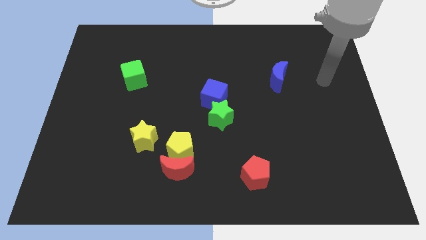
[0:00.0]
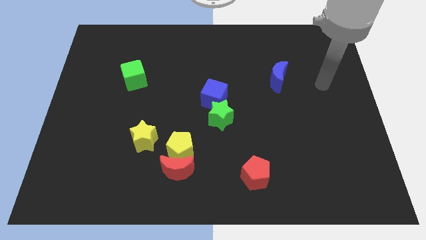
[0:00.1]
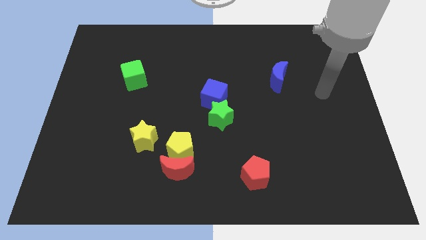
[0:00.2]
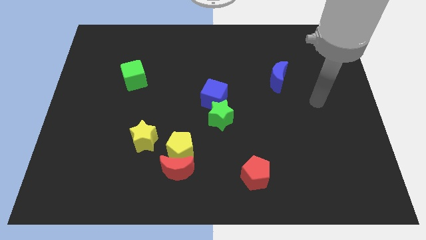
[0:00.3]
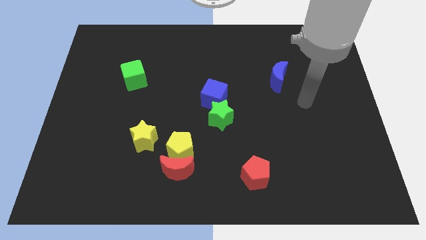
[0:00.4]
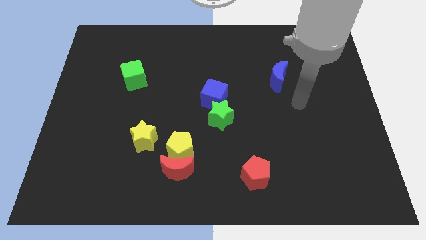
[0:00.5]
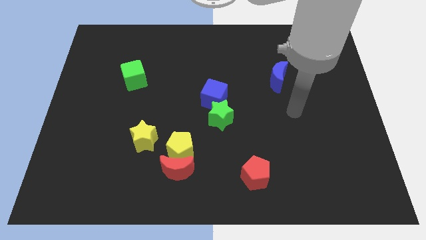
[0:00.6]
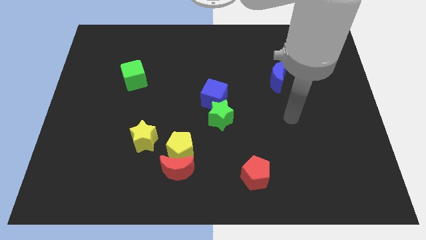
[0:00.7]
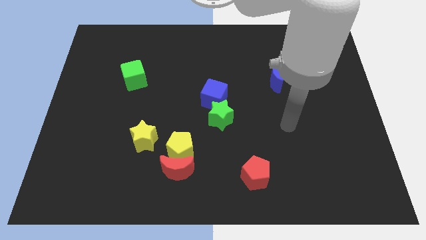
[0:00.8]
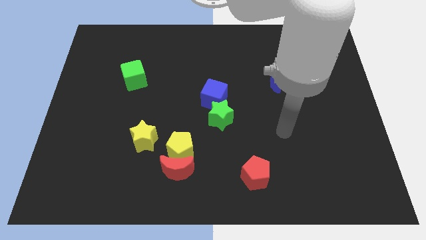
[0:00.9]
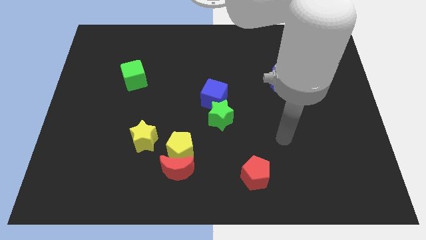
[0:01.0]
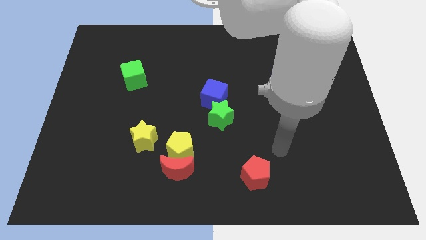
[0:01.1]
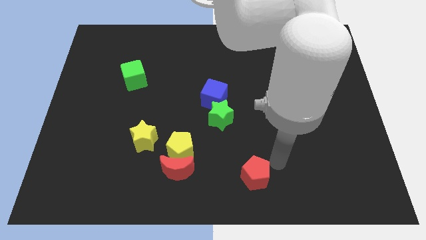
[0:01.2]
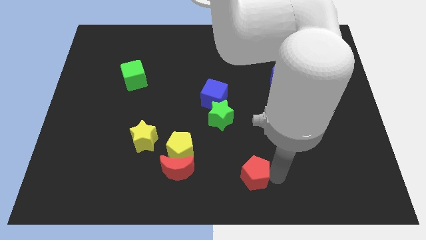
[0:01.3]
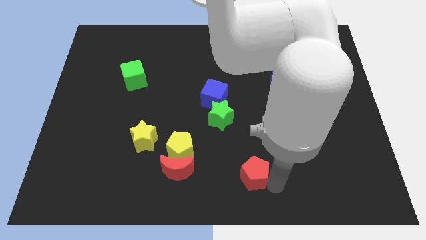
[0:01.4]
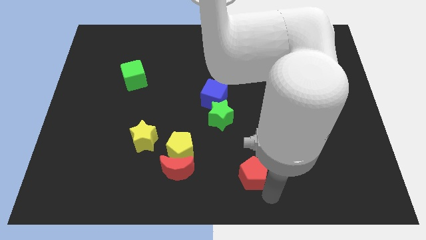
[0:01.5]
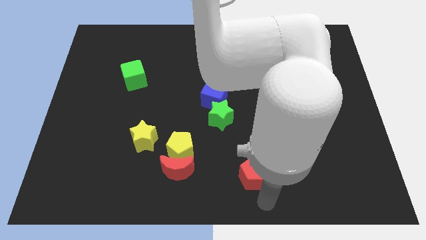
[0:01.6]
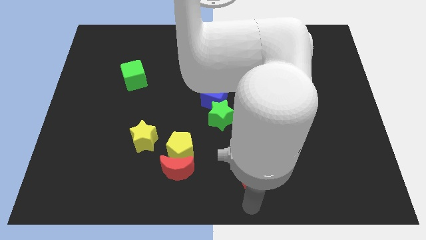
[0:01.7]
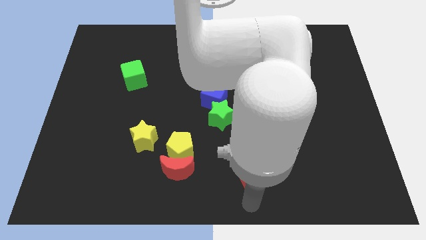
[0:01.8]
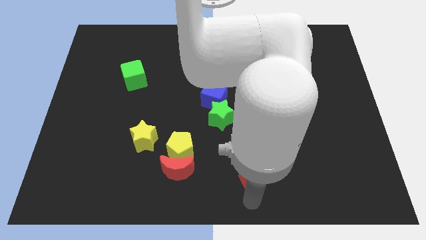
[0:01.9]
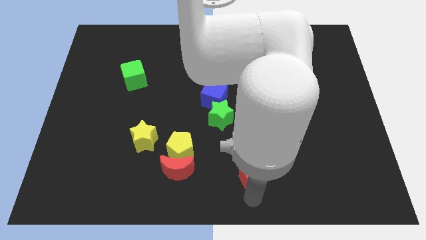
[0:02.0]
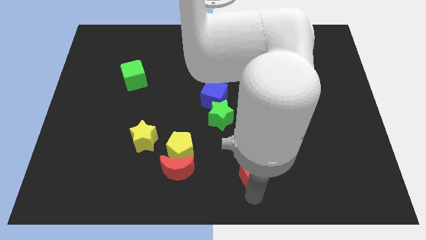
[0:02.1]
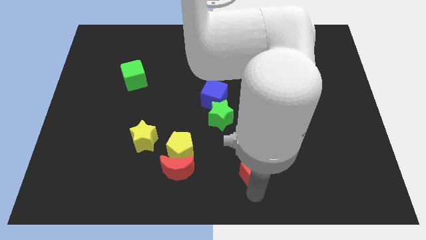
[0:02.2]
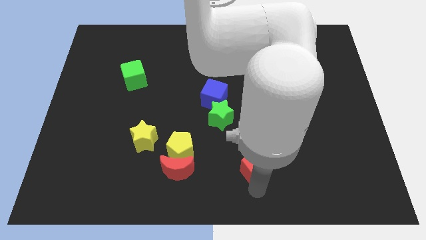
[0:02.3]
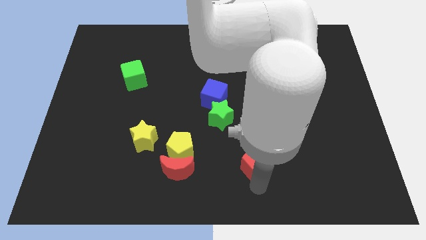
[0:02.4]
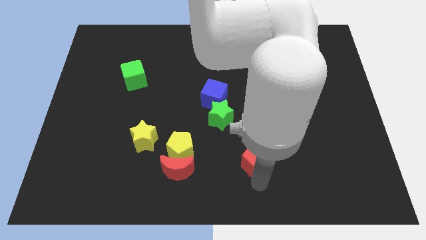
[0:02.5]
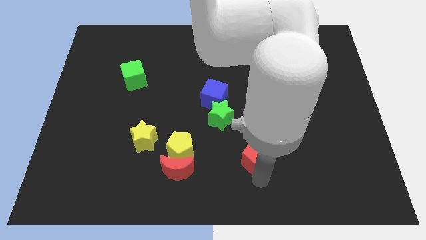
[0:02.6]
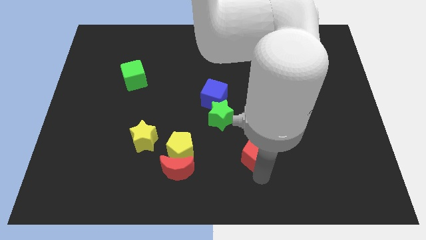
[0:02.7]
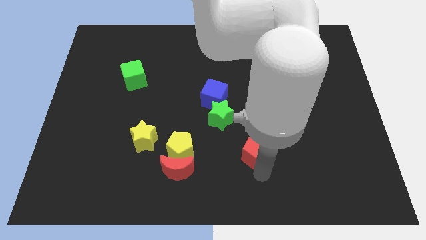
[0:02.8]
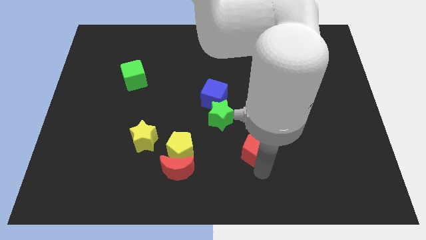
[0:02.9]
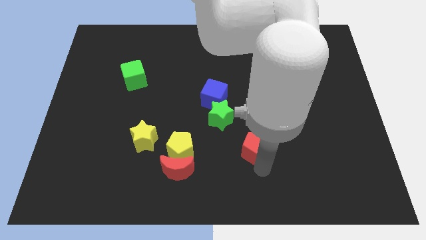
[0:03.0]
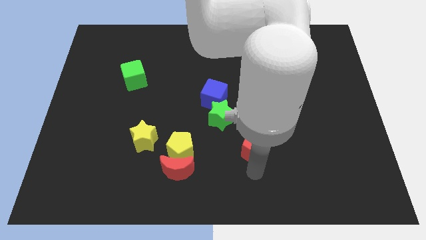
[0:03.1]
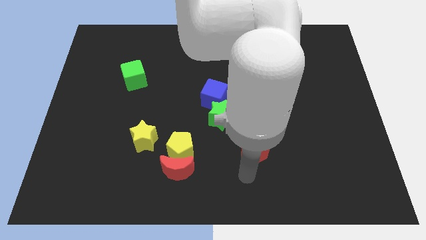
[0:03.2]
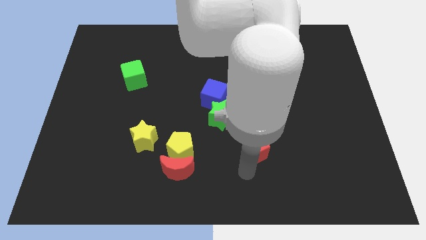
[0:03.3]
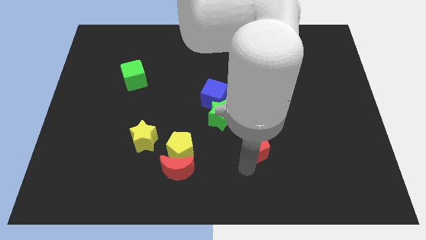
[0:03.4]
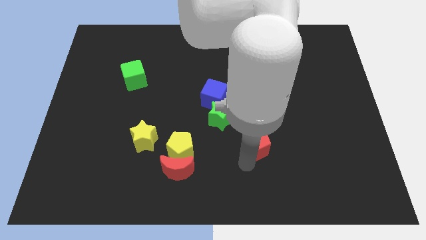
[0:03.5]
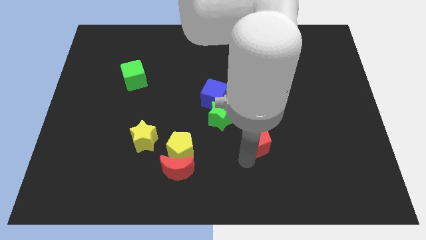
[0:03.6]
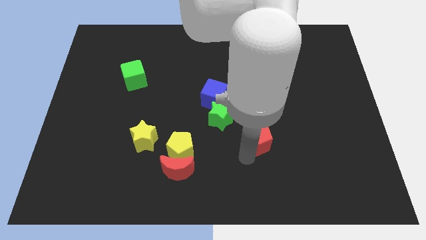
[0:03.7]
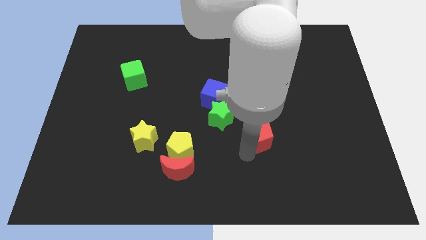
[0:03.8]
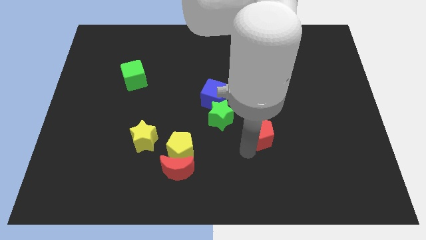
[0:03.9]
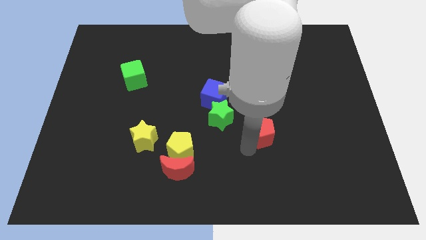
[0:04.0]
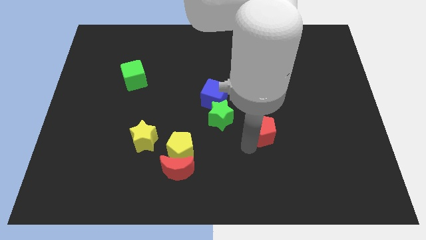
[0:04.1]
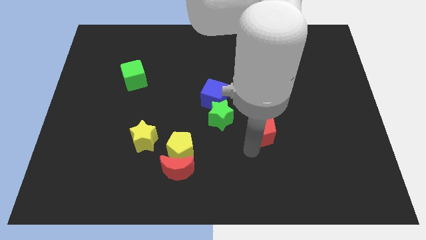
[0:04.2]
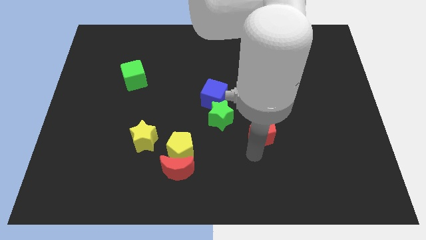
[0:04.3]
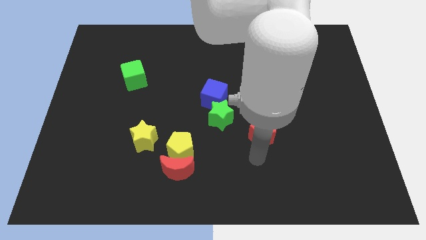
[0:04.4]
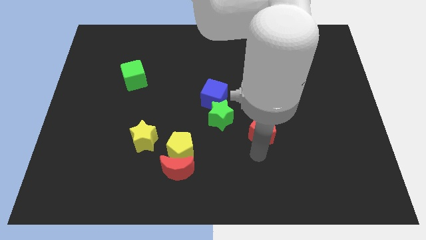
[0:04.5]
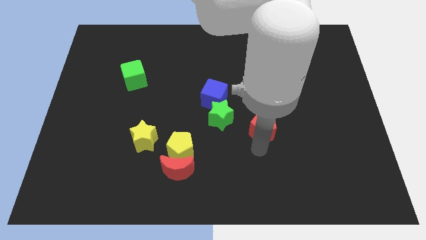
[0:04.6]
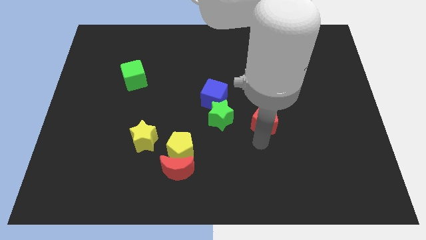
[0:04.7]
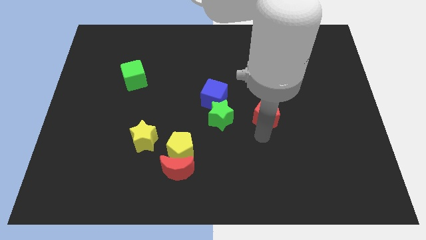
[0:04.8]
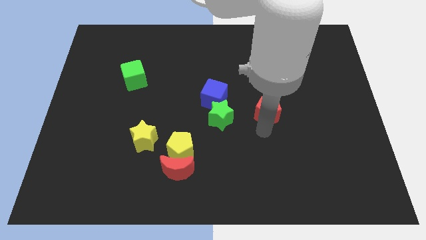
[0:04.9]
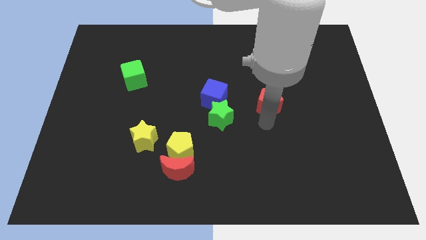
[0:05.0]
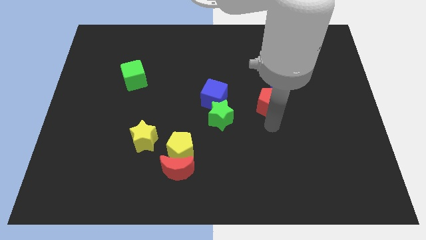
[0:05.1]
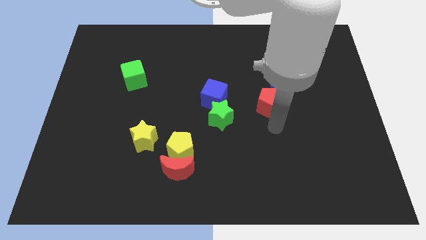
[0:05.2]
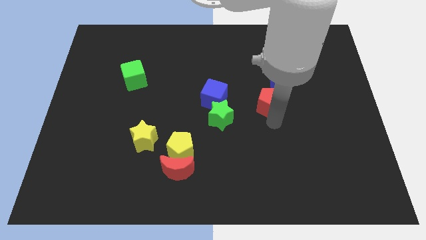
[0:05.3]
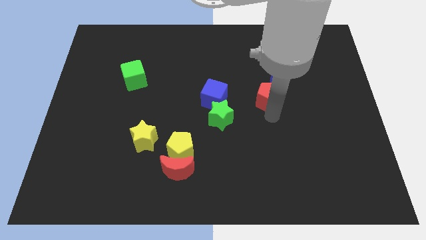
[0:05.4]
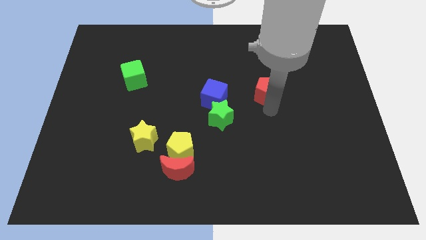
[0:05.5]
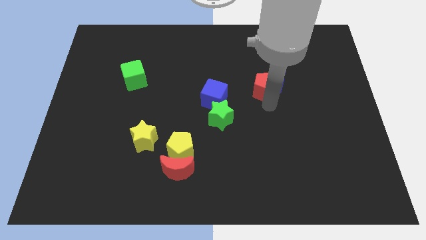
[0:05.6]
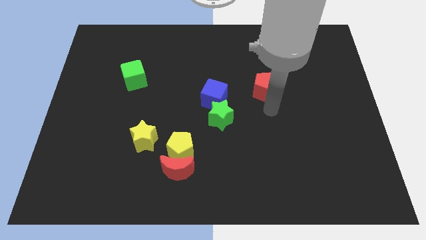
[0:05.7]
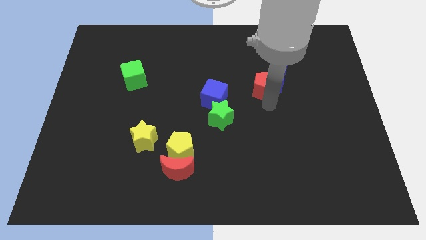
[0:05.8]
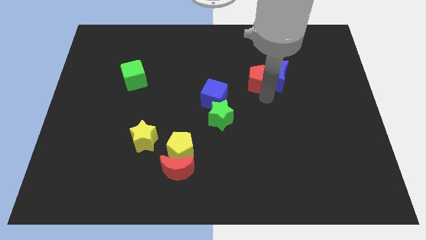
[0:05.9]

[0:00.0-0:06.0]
slide the red pentagon to the top left side of the blue moon

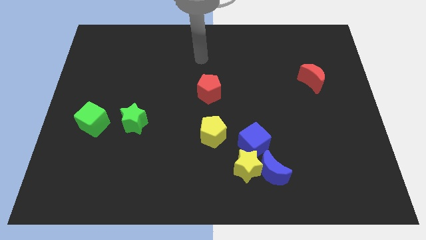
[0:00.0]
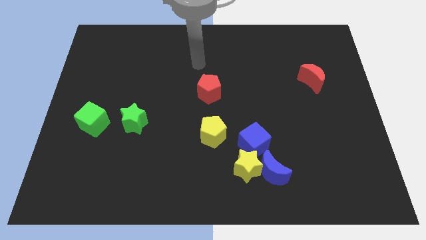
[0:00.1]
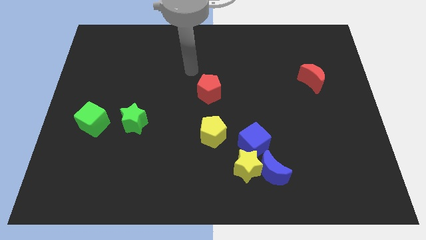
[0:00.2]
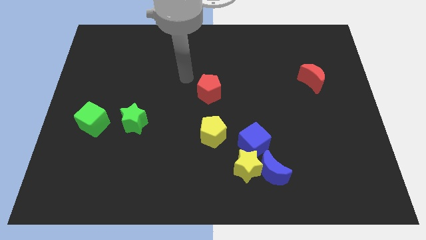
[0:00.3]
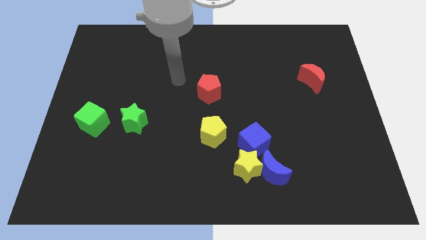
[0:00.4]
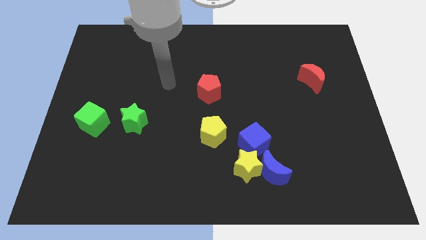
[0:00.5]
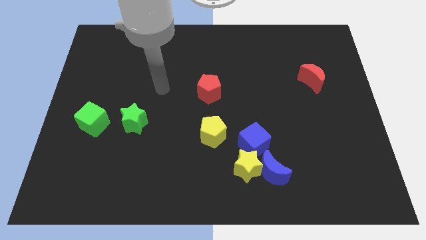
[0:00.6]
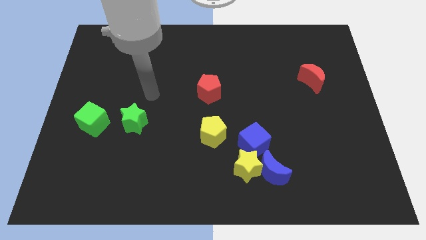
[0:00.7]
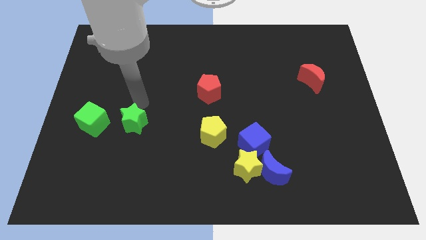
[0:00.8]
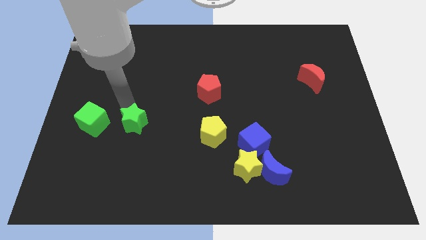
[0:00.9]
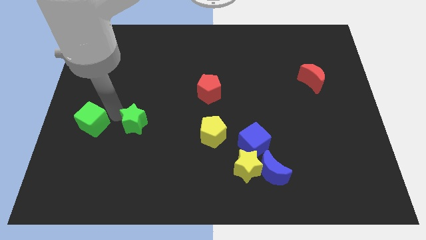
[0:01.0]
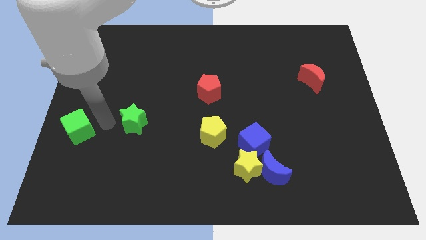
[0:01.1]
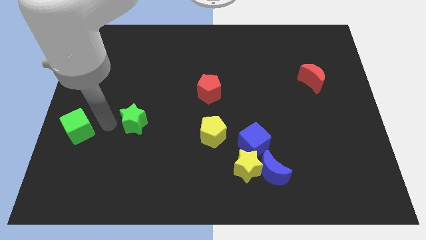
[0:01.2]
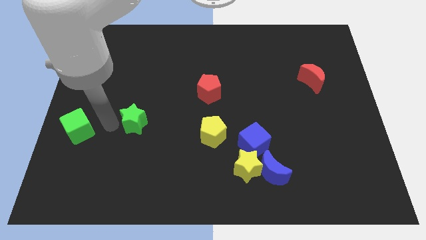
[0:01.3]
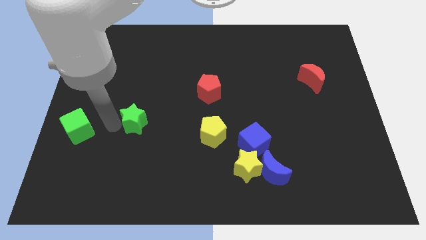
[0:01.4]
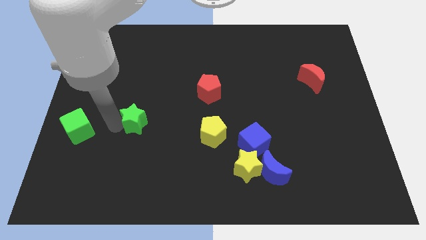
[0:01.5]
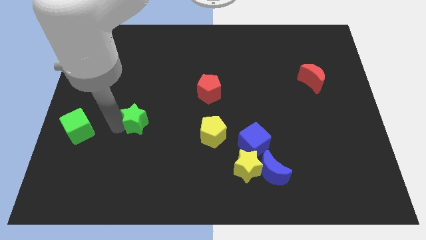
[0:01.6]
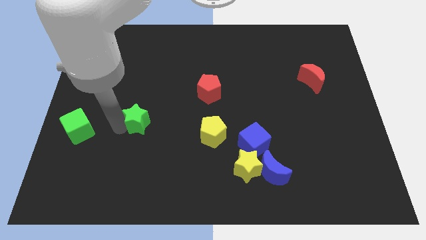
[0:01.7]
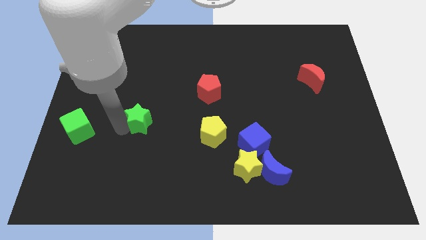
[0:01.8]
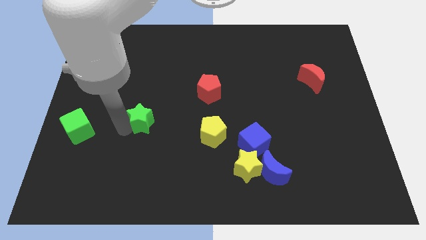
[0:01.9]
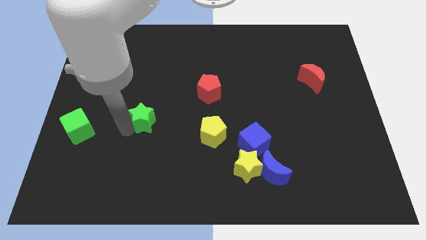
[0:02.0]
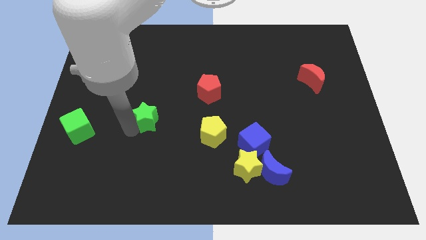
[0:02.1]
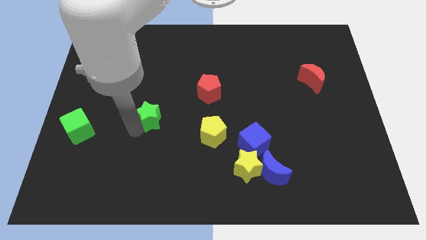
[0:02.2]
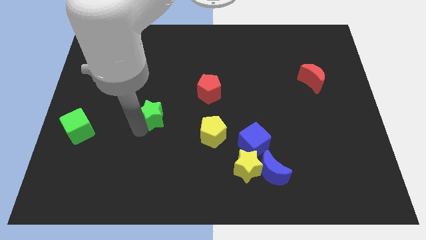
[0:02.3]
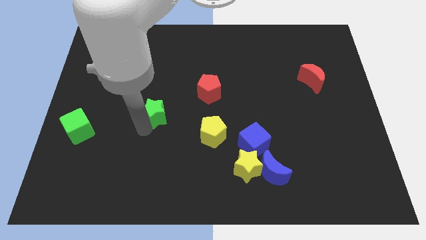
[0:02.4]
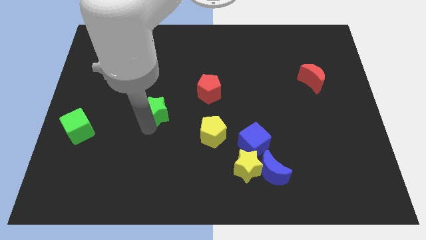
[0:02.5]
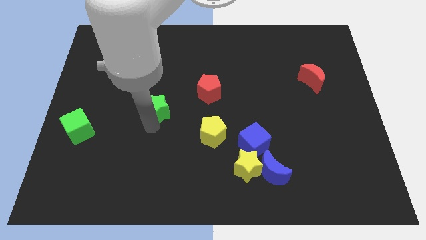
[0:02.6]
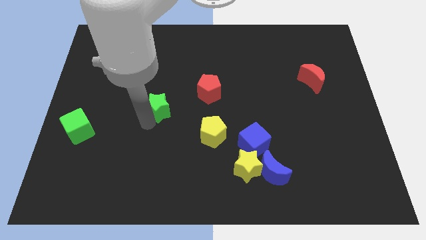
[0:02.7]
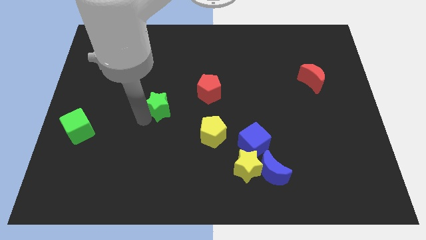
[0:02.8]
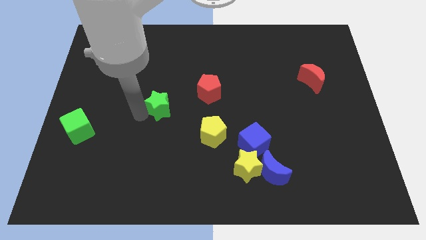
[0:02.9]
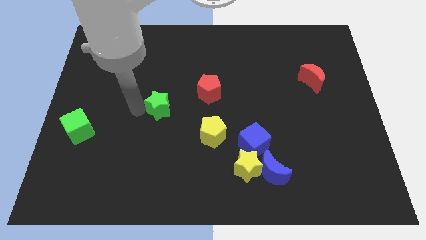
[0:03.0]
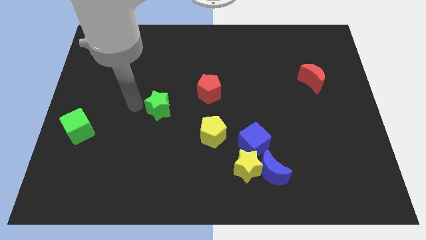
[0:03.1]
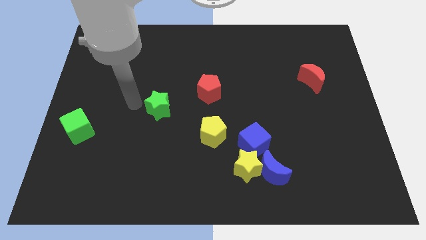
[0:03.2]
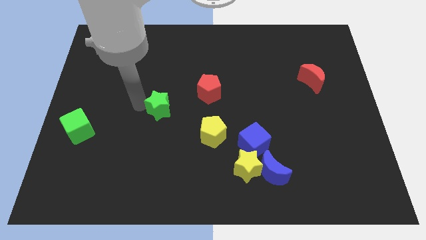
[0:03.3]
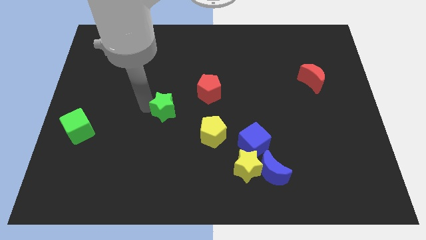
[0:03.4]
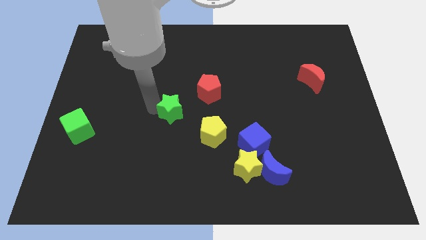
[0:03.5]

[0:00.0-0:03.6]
put the green star to the top left of the yellow pentagon
